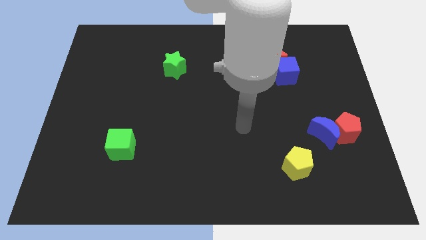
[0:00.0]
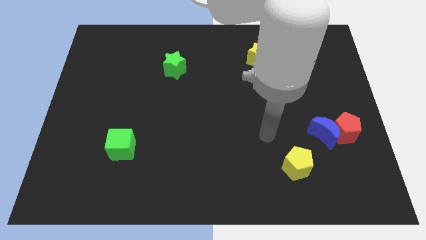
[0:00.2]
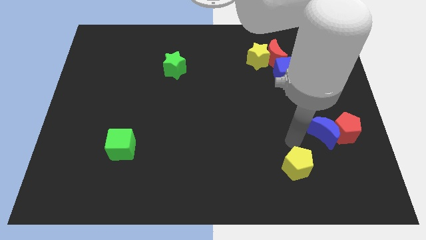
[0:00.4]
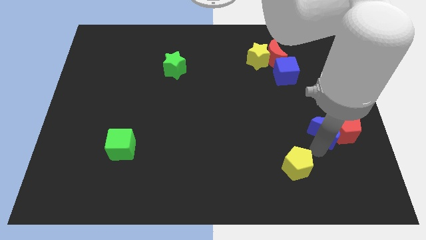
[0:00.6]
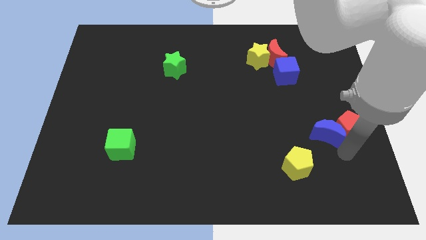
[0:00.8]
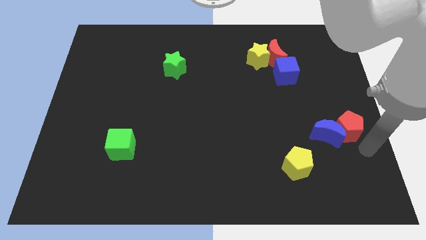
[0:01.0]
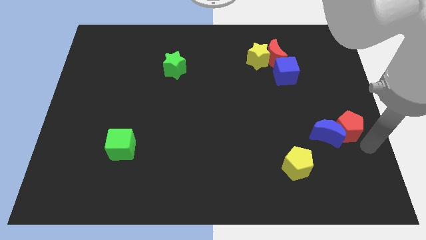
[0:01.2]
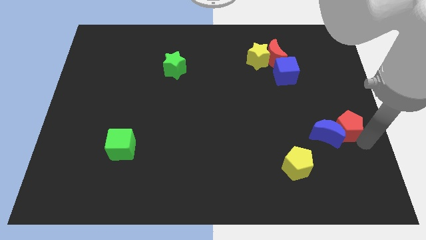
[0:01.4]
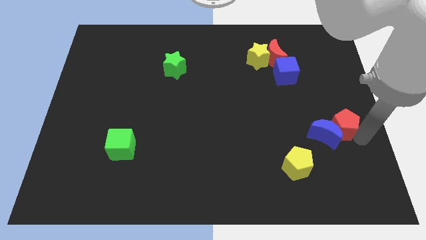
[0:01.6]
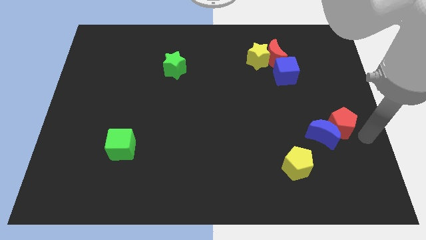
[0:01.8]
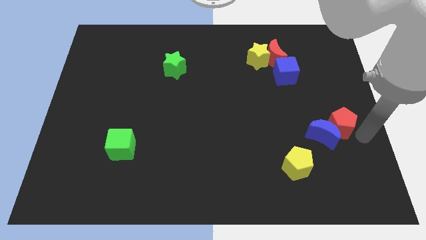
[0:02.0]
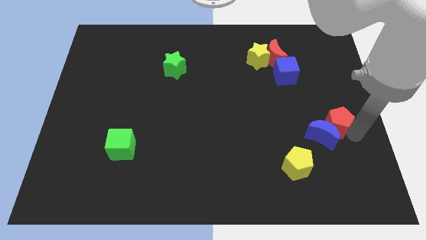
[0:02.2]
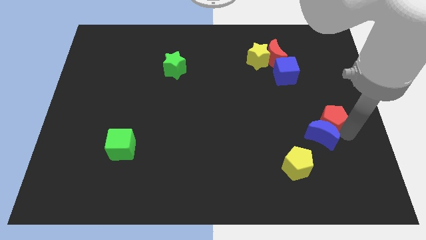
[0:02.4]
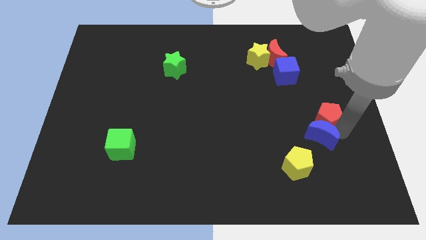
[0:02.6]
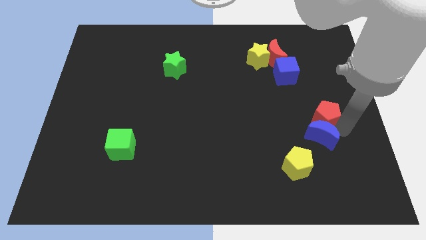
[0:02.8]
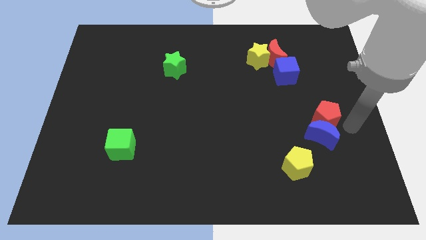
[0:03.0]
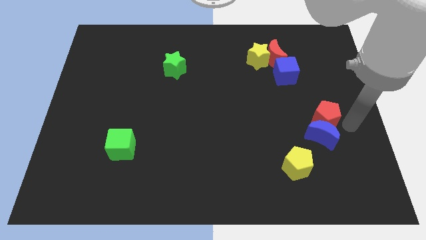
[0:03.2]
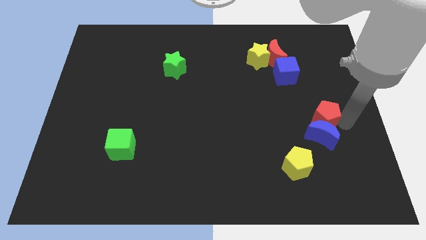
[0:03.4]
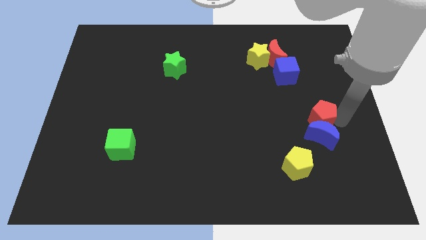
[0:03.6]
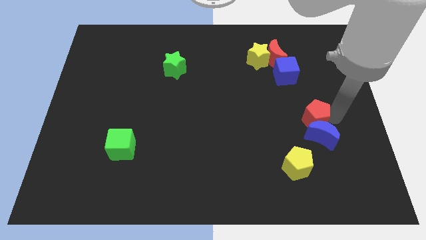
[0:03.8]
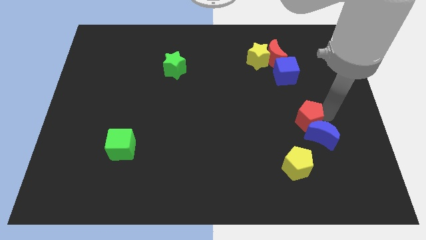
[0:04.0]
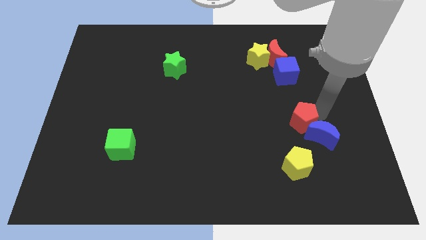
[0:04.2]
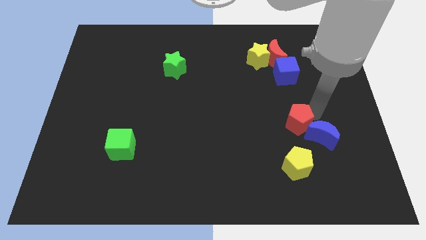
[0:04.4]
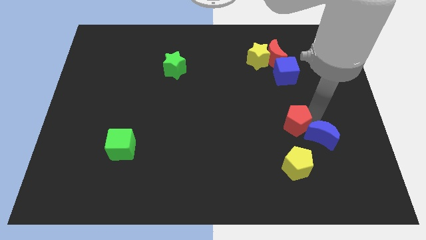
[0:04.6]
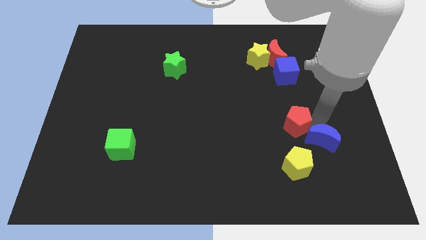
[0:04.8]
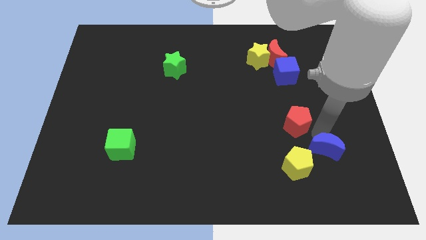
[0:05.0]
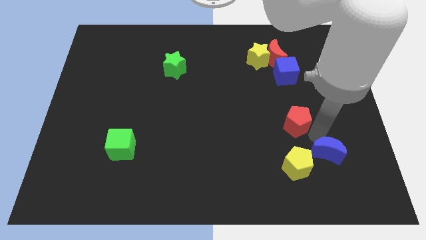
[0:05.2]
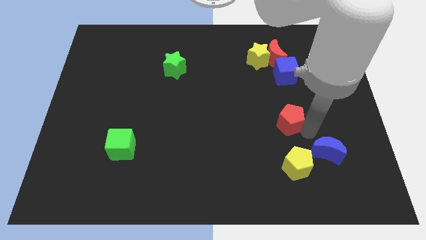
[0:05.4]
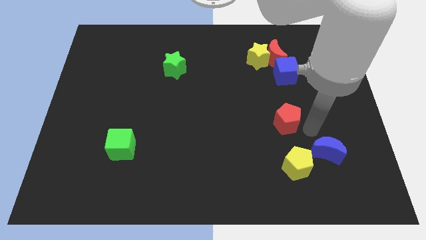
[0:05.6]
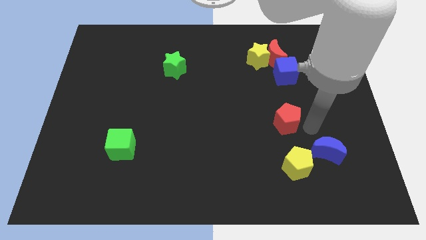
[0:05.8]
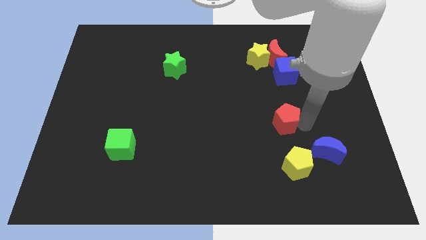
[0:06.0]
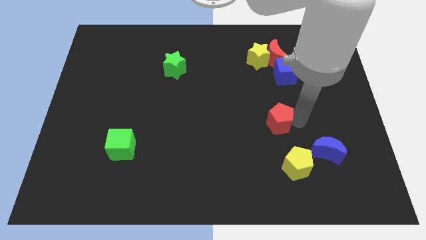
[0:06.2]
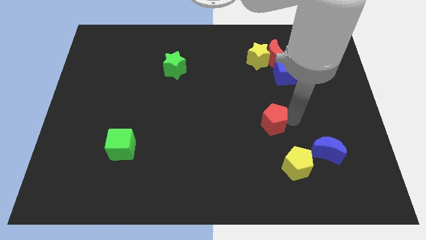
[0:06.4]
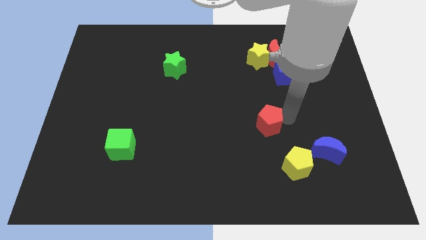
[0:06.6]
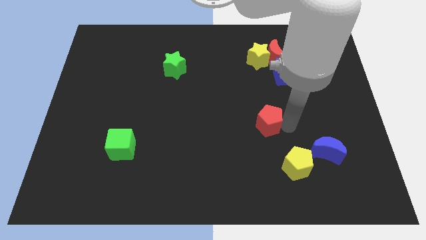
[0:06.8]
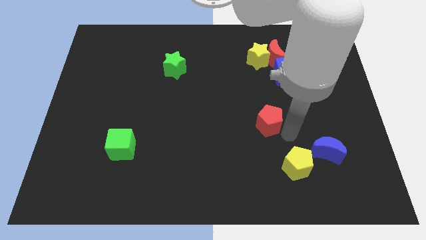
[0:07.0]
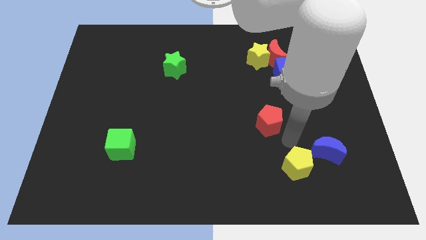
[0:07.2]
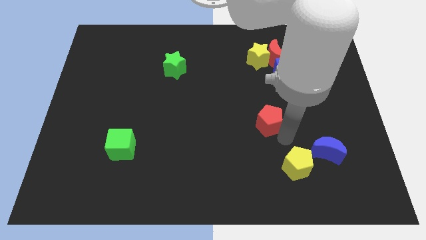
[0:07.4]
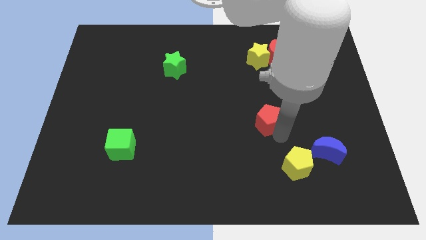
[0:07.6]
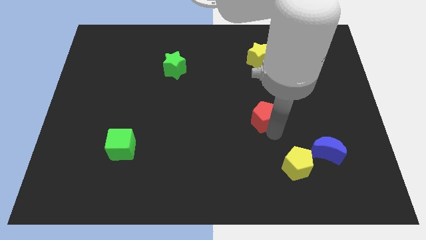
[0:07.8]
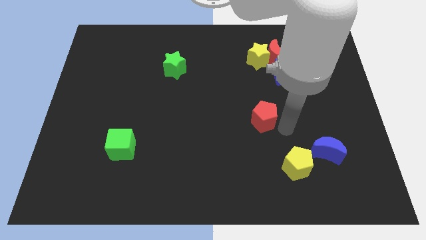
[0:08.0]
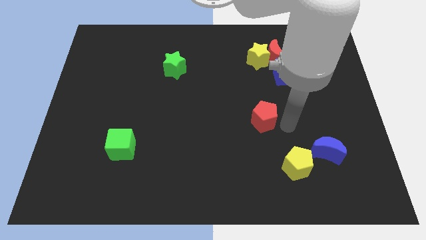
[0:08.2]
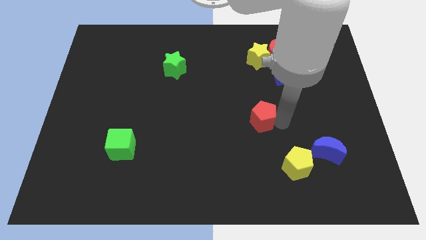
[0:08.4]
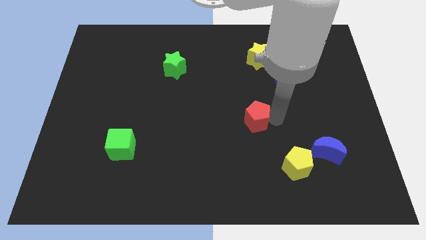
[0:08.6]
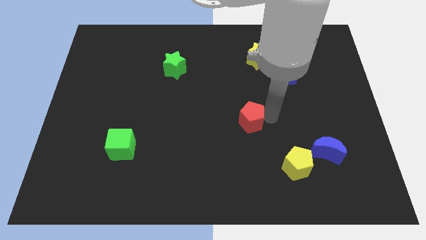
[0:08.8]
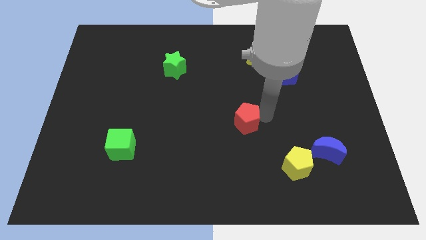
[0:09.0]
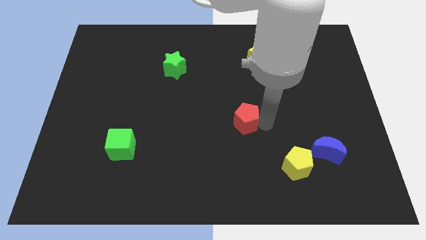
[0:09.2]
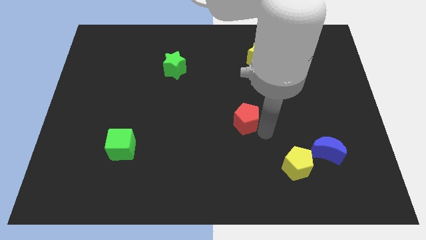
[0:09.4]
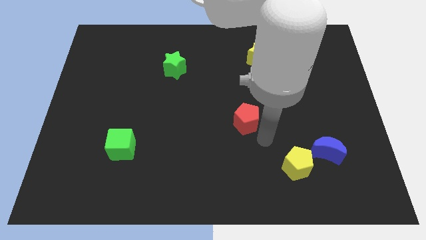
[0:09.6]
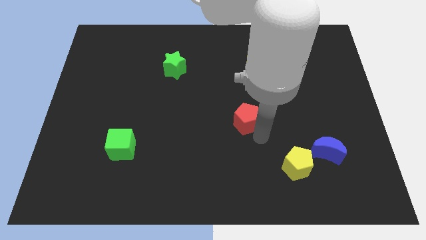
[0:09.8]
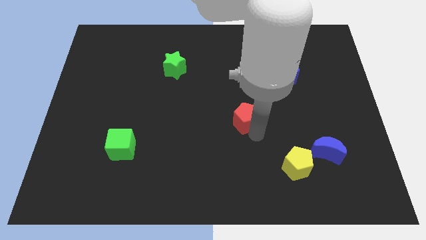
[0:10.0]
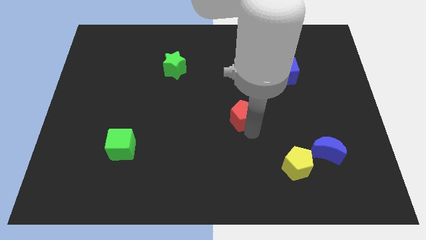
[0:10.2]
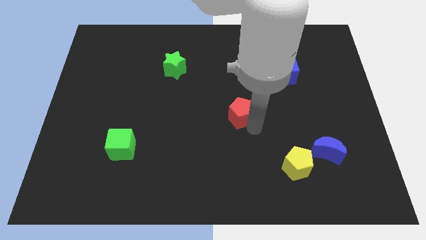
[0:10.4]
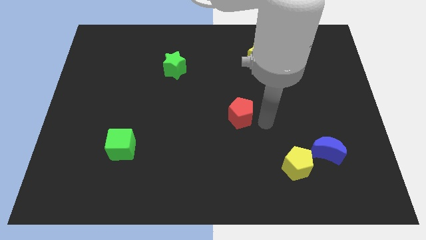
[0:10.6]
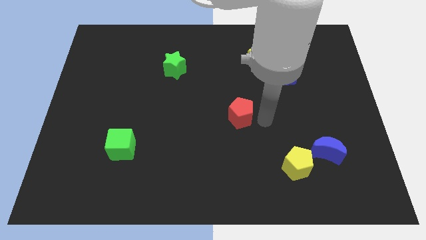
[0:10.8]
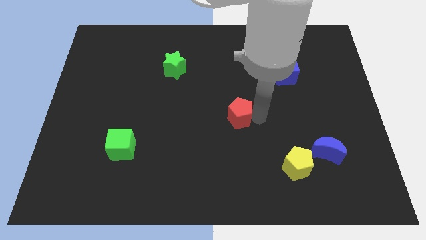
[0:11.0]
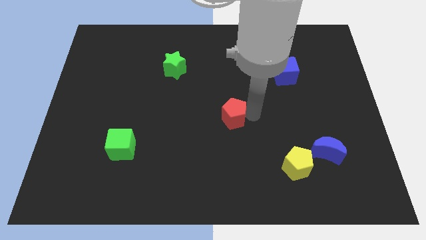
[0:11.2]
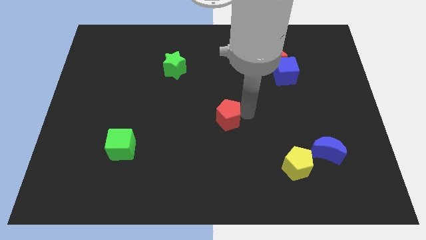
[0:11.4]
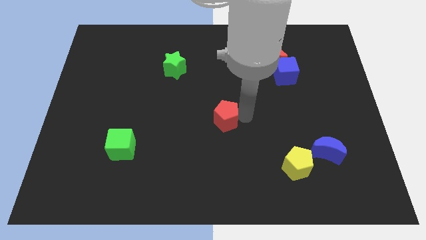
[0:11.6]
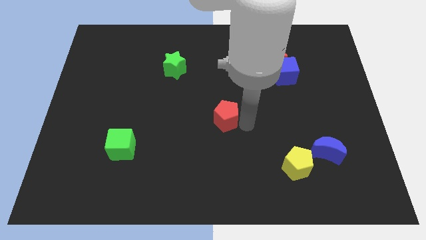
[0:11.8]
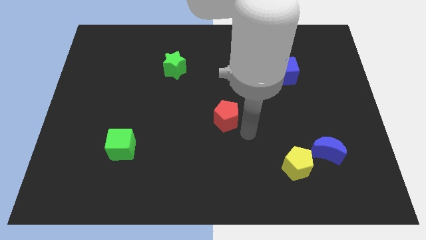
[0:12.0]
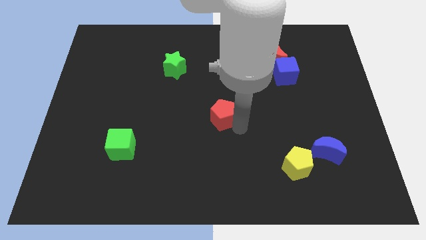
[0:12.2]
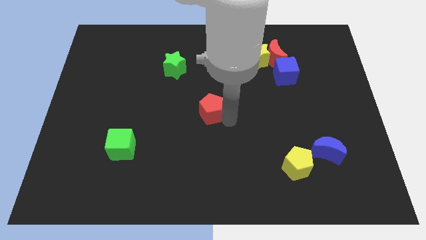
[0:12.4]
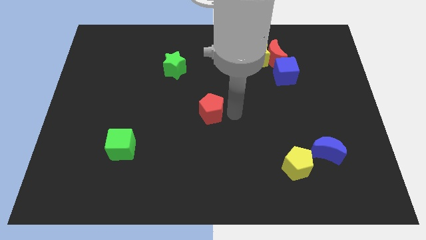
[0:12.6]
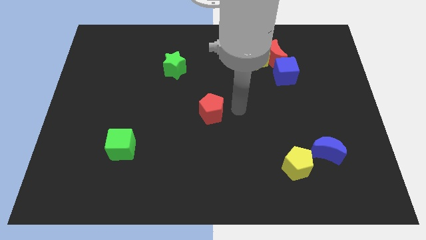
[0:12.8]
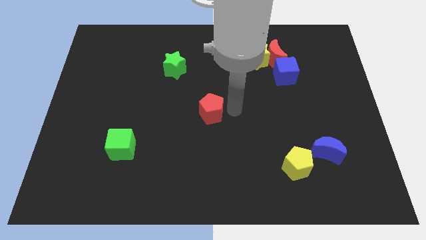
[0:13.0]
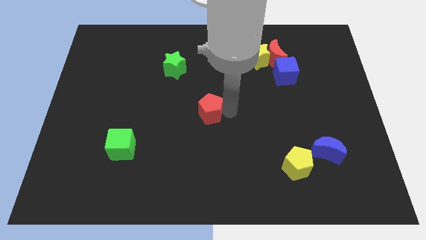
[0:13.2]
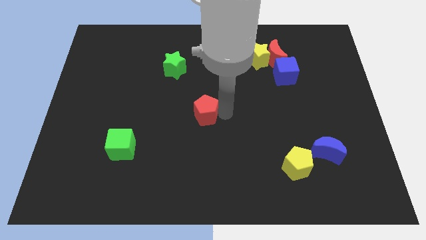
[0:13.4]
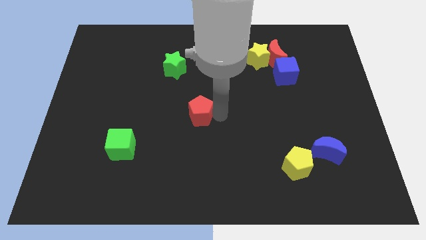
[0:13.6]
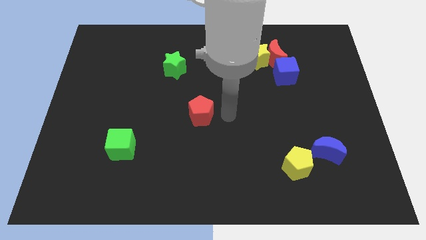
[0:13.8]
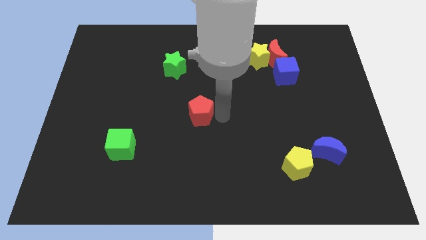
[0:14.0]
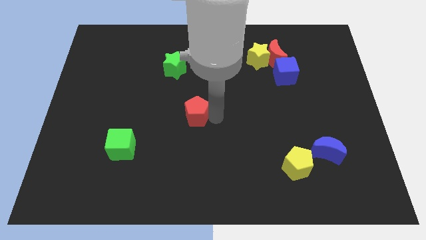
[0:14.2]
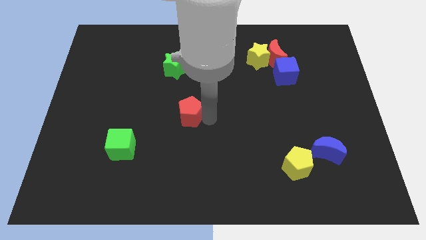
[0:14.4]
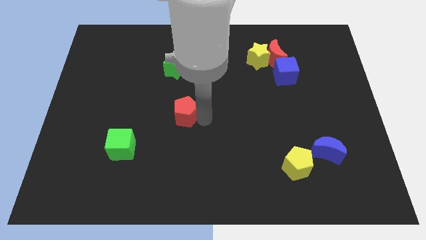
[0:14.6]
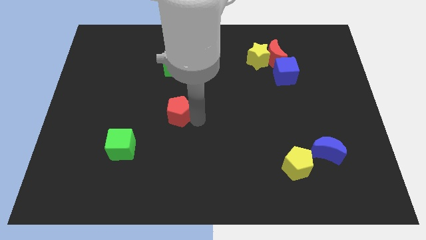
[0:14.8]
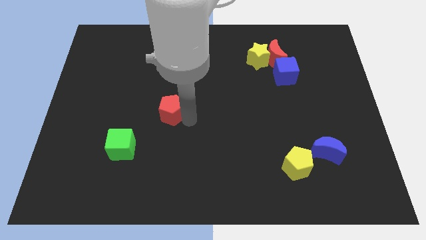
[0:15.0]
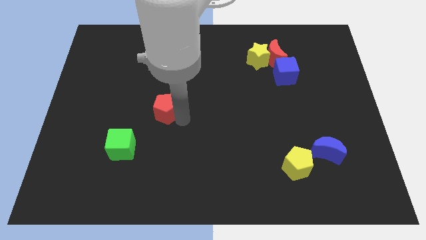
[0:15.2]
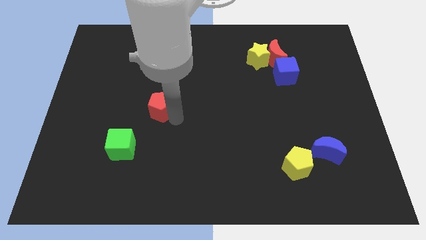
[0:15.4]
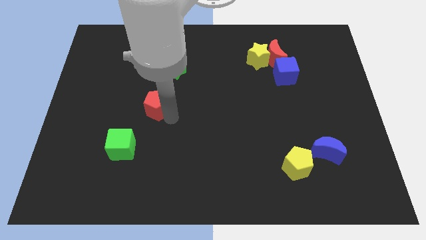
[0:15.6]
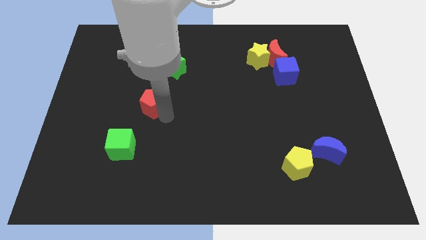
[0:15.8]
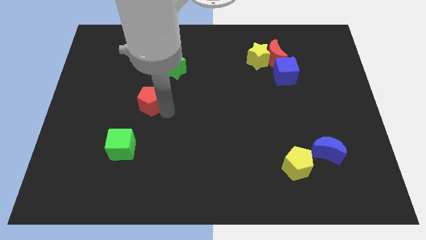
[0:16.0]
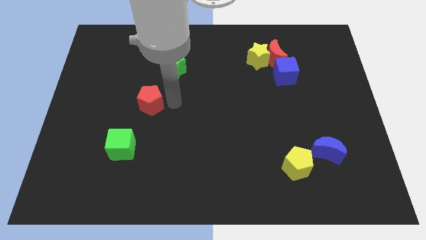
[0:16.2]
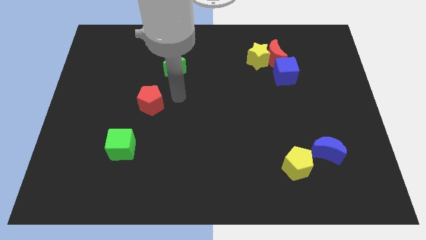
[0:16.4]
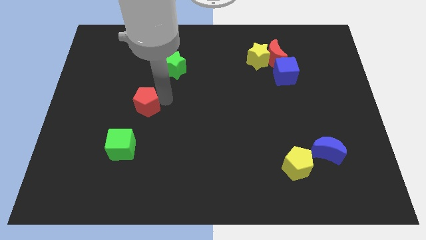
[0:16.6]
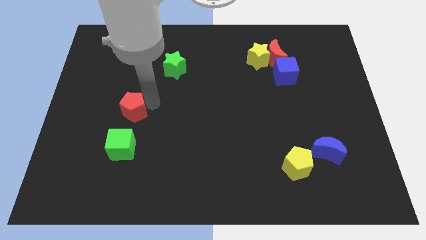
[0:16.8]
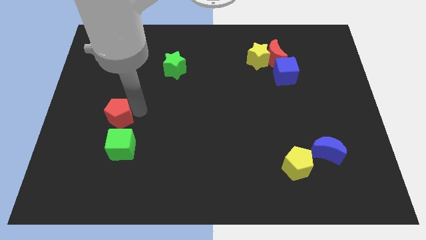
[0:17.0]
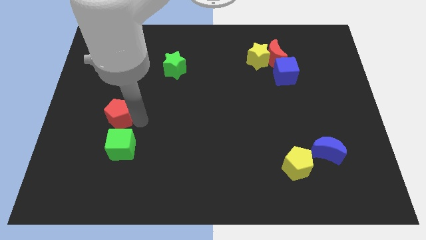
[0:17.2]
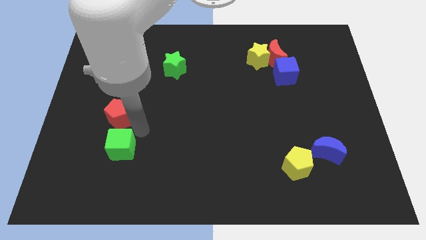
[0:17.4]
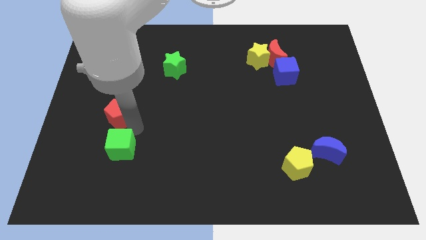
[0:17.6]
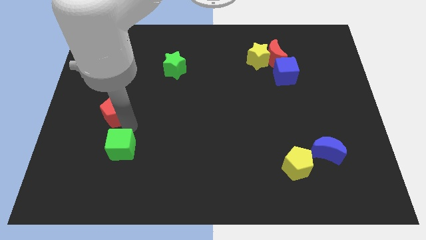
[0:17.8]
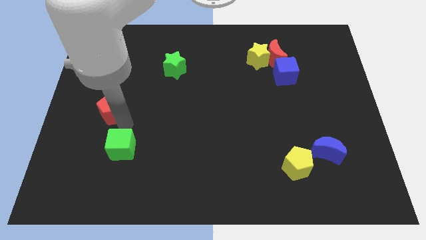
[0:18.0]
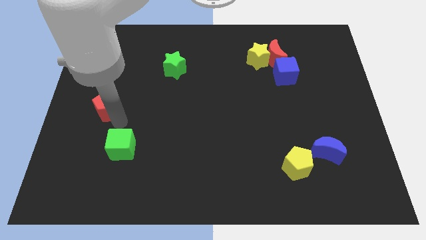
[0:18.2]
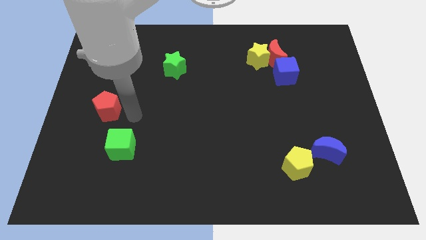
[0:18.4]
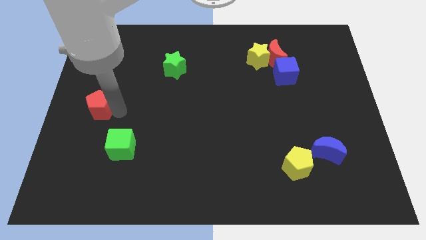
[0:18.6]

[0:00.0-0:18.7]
move the red pentagon to the center left
